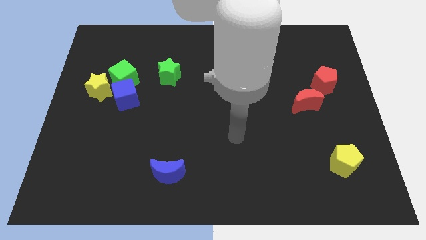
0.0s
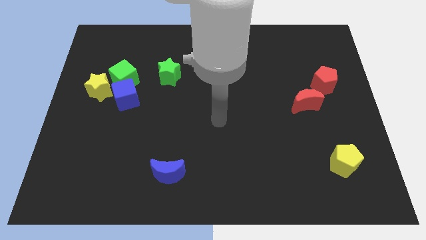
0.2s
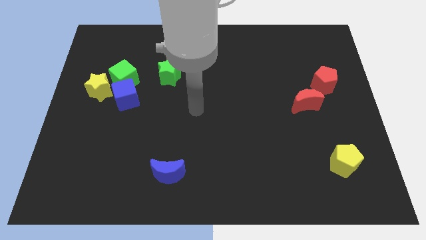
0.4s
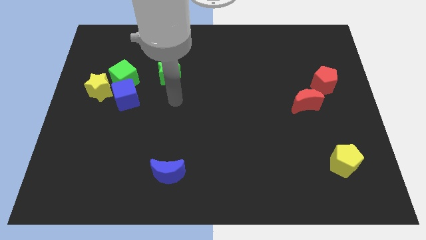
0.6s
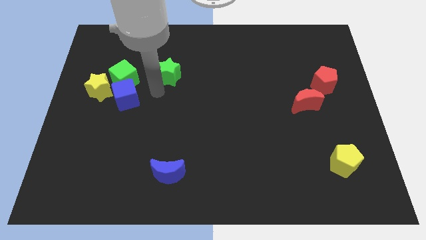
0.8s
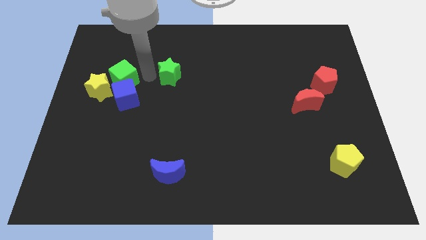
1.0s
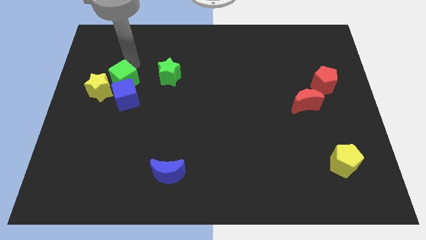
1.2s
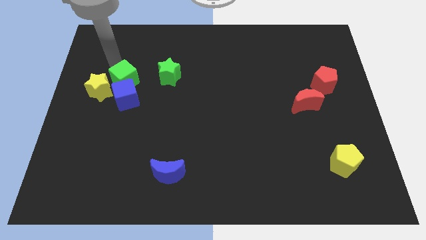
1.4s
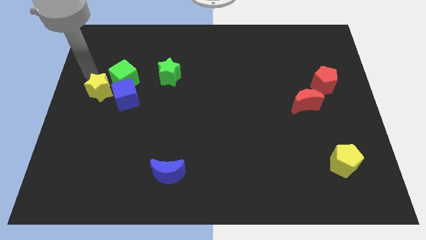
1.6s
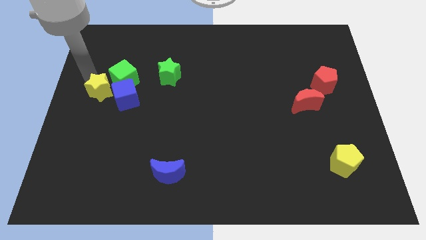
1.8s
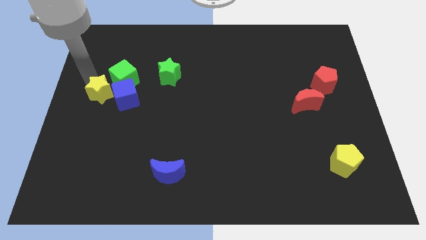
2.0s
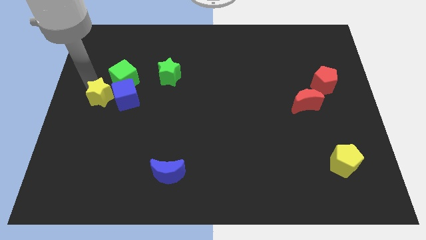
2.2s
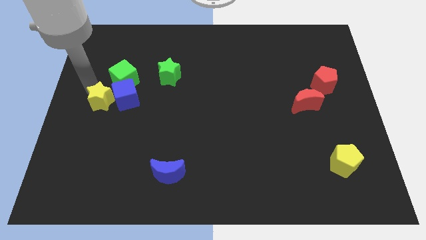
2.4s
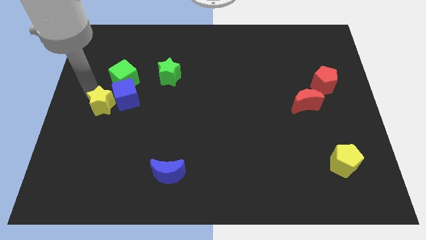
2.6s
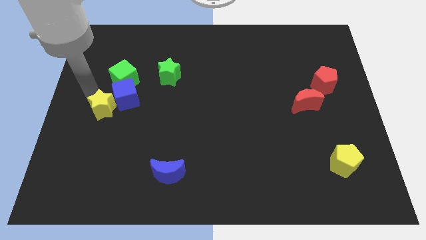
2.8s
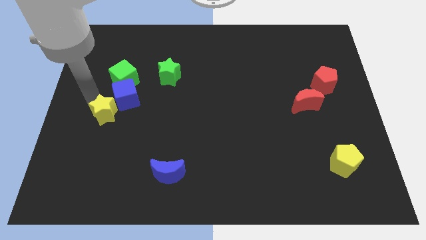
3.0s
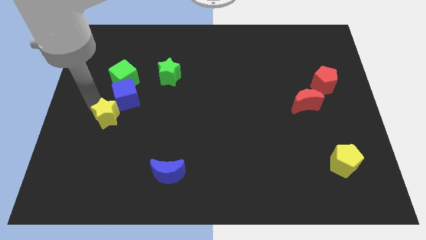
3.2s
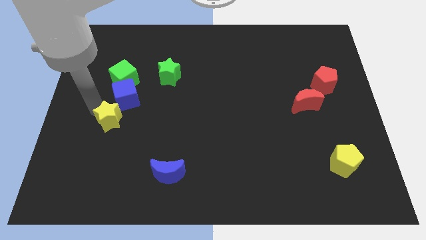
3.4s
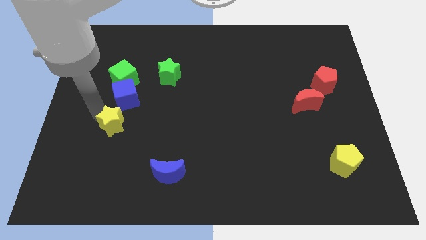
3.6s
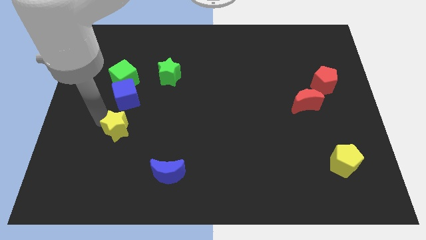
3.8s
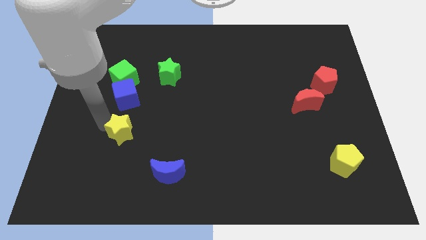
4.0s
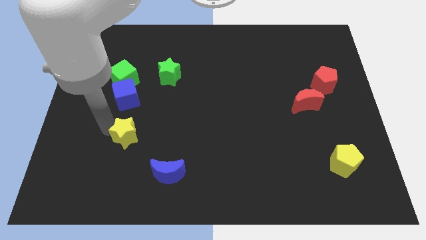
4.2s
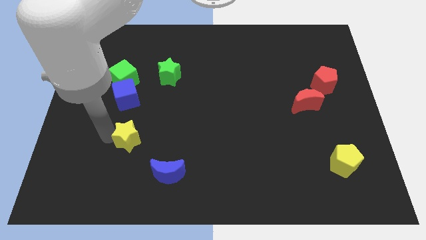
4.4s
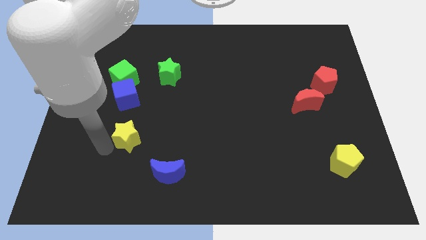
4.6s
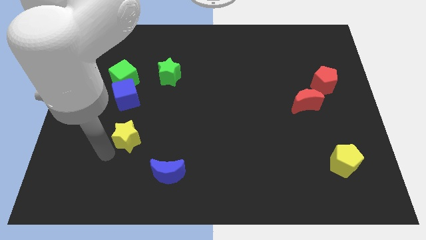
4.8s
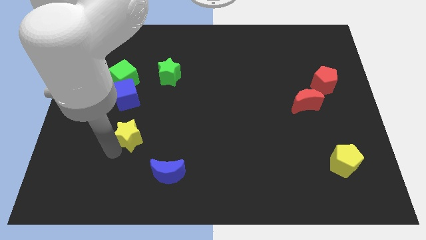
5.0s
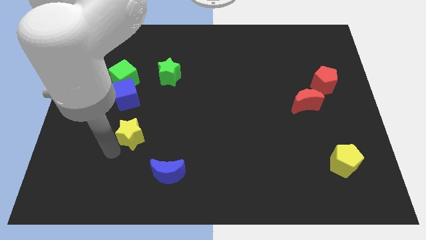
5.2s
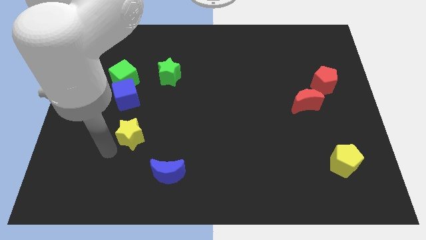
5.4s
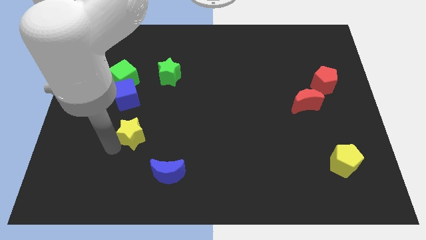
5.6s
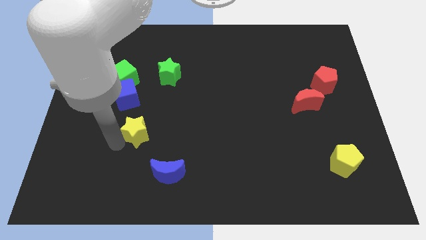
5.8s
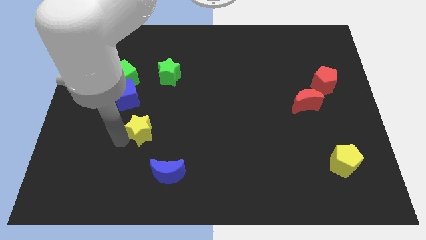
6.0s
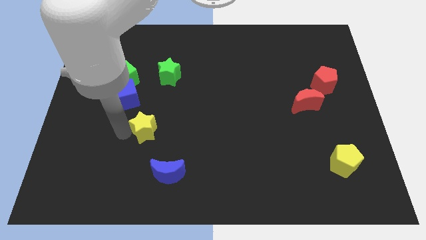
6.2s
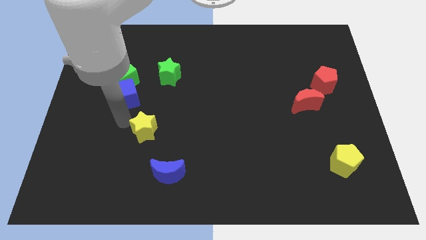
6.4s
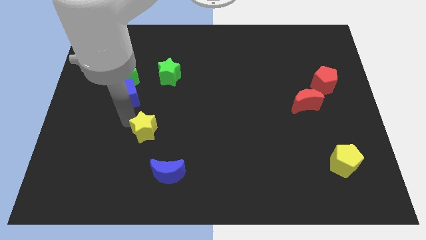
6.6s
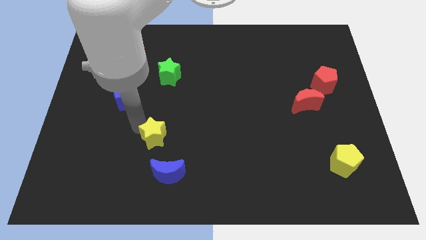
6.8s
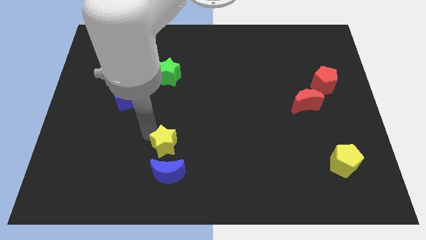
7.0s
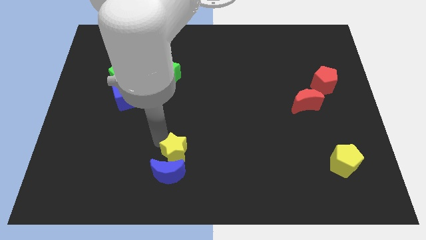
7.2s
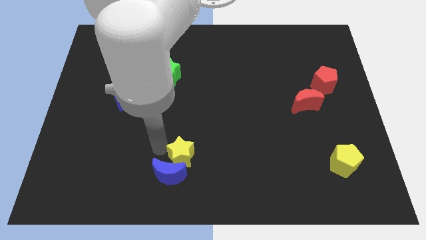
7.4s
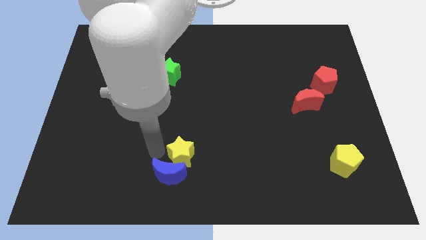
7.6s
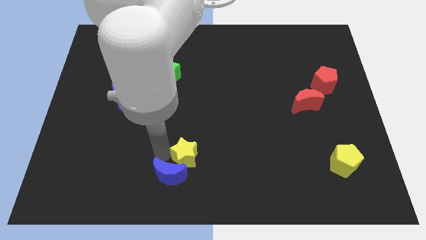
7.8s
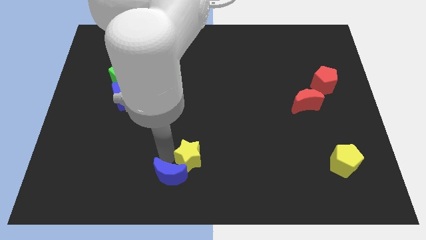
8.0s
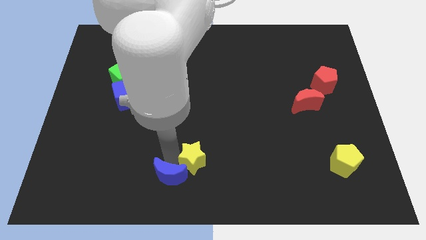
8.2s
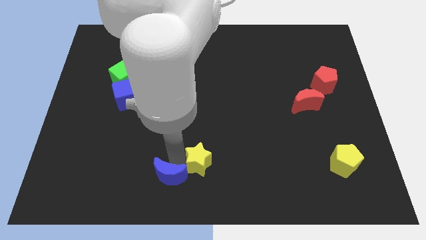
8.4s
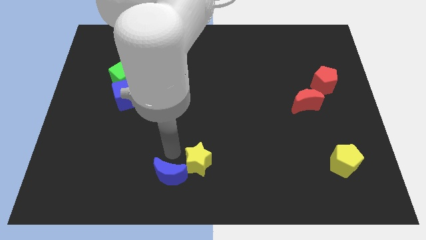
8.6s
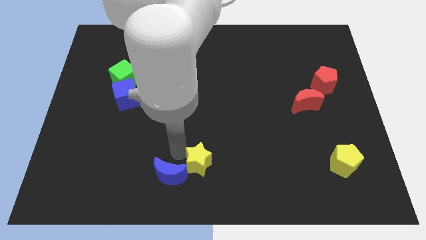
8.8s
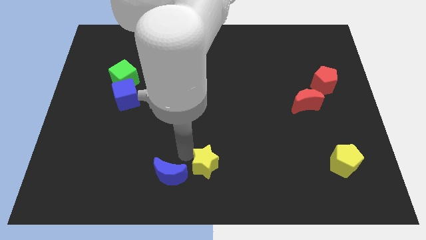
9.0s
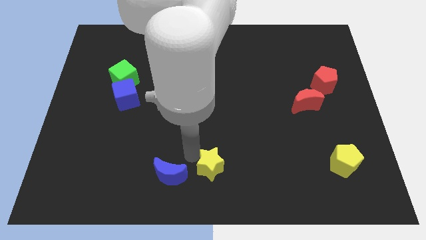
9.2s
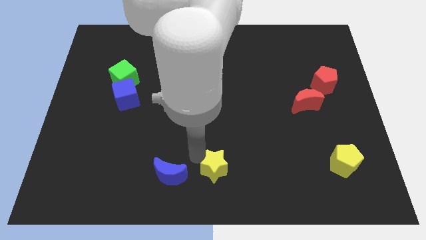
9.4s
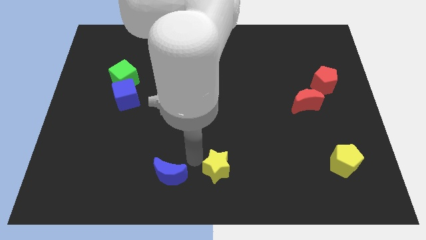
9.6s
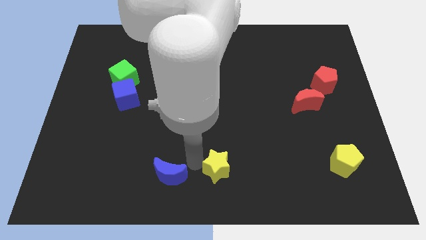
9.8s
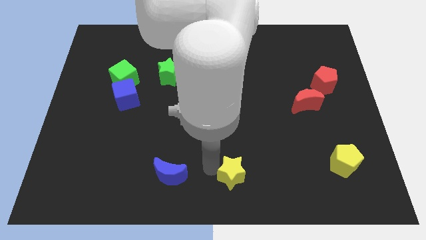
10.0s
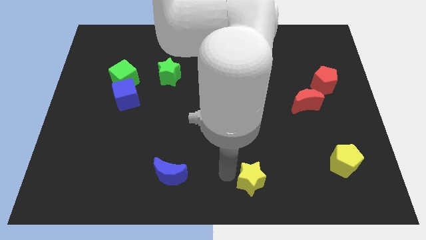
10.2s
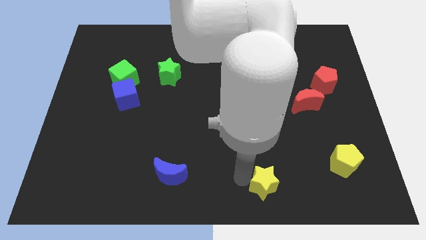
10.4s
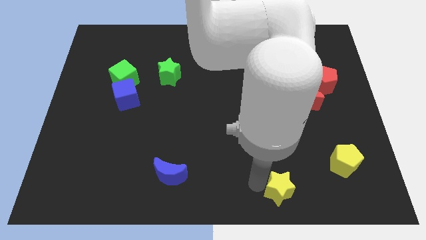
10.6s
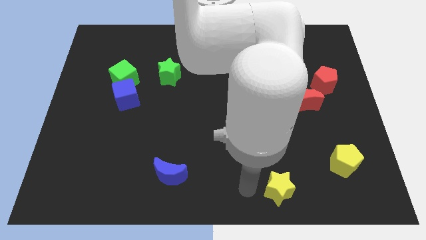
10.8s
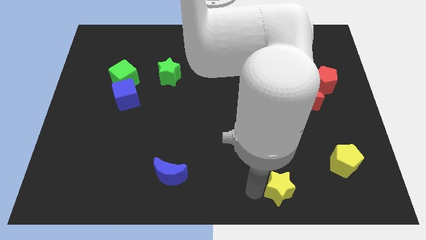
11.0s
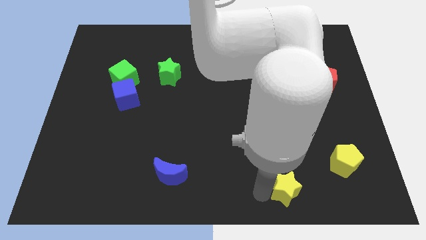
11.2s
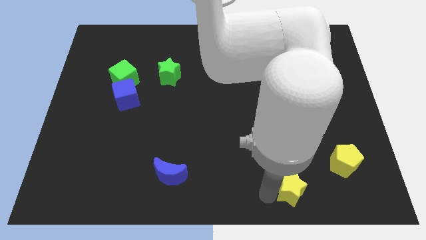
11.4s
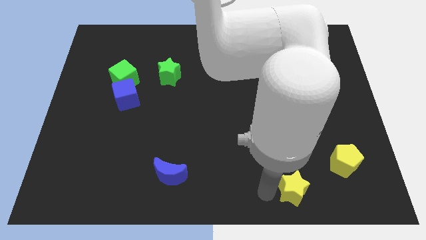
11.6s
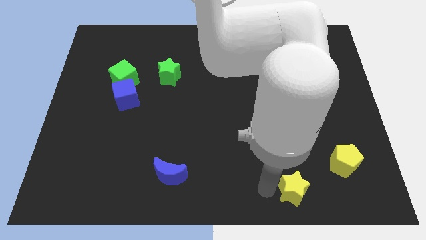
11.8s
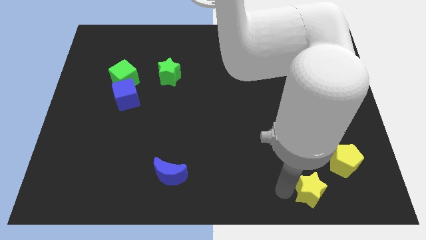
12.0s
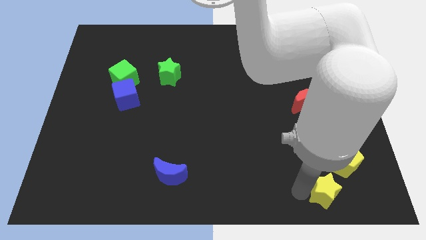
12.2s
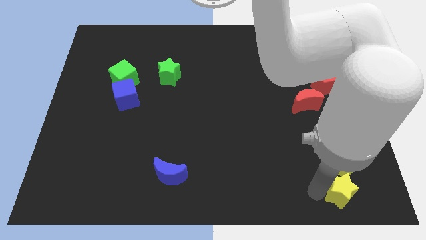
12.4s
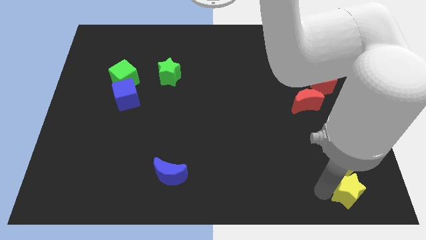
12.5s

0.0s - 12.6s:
move the yellow star to the bottom right
